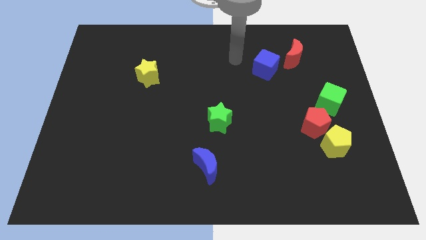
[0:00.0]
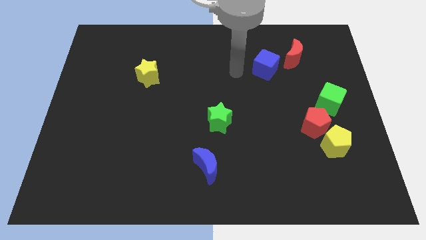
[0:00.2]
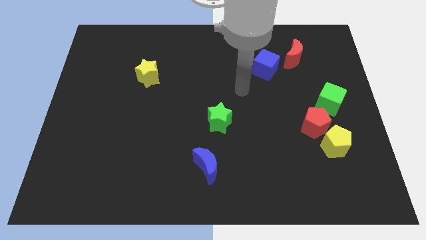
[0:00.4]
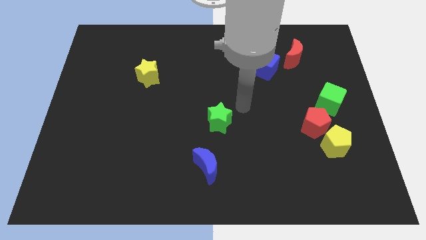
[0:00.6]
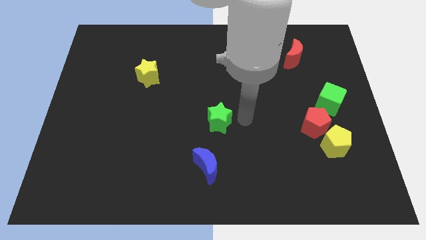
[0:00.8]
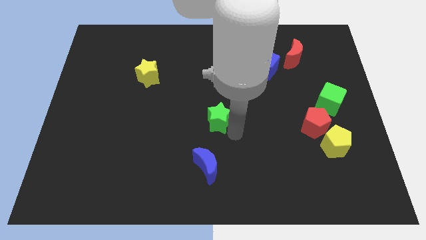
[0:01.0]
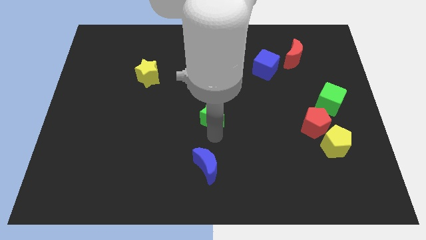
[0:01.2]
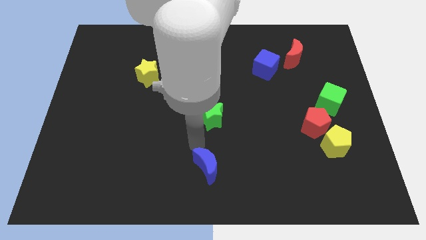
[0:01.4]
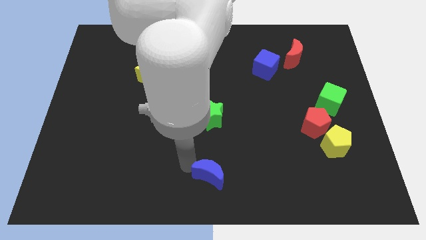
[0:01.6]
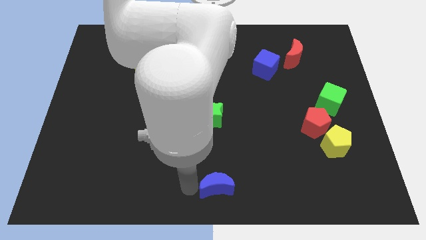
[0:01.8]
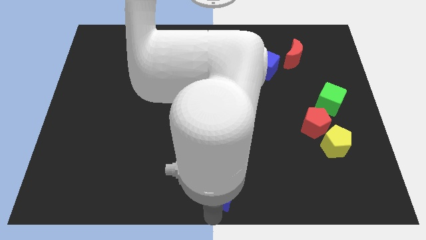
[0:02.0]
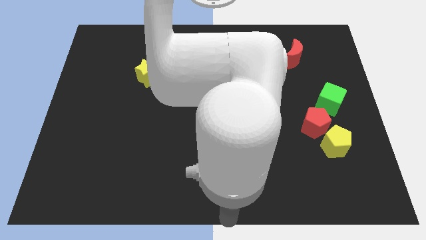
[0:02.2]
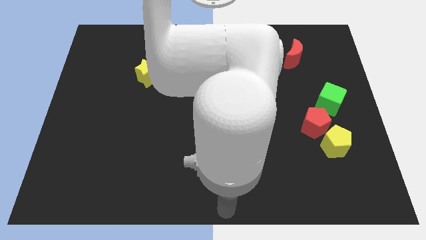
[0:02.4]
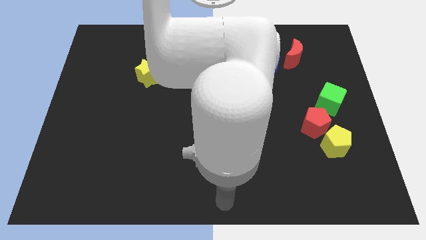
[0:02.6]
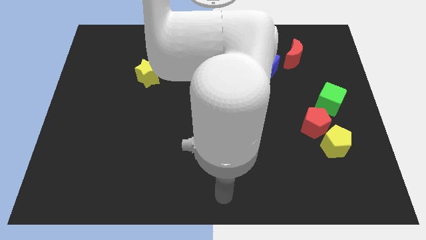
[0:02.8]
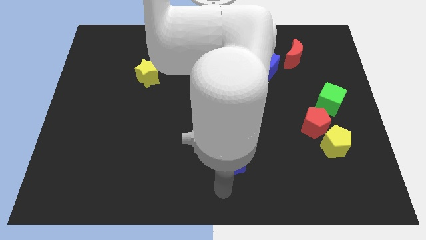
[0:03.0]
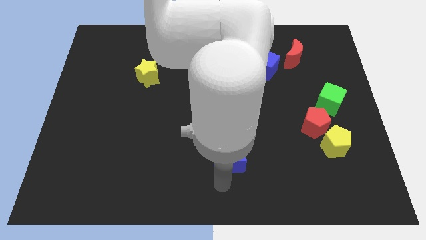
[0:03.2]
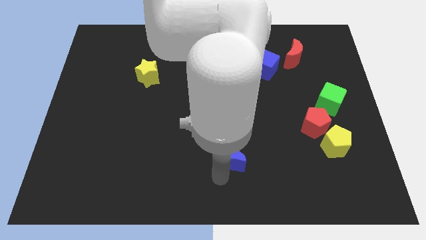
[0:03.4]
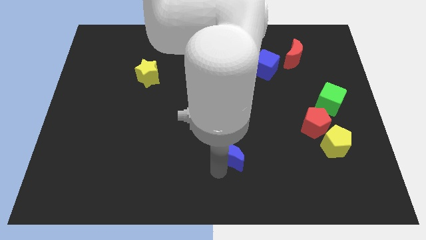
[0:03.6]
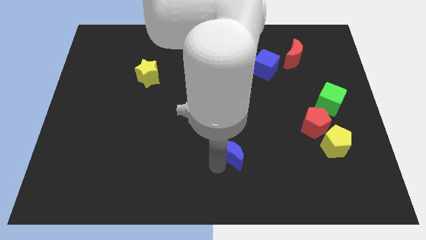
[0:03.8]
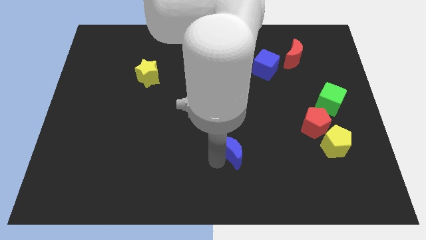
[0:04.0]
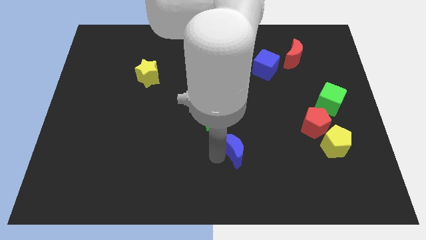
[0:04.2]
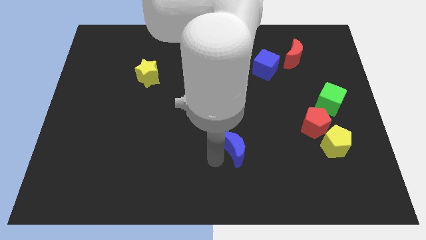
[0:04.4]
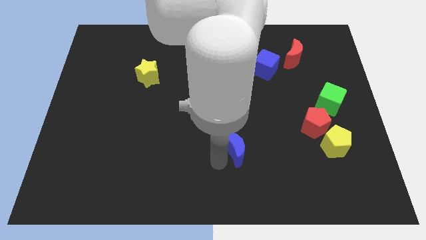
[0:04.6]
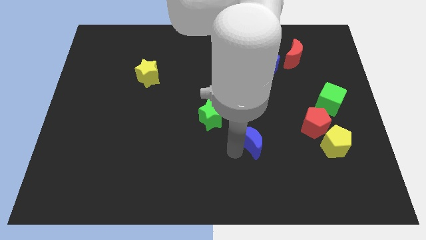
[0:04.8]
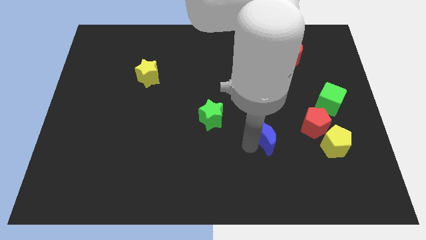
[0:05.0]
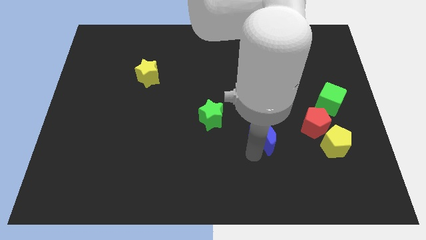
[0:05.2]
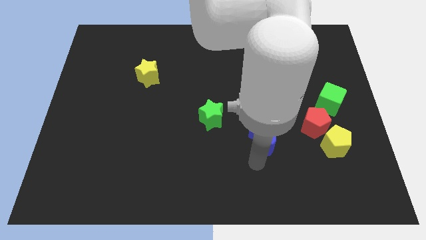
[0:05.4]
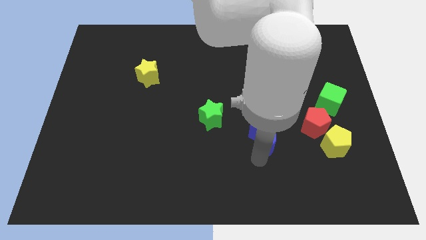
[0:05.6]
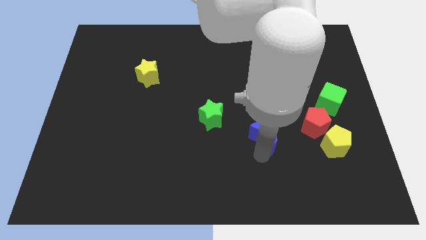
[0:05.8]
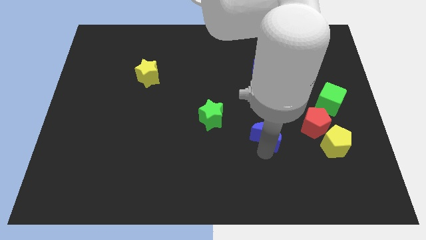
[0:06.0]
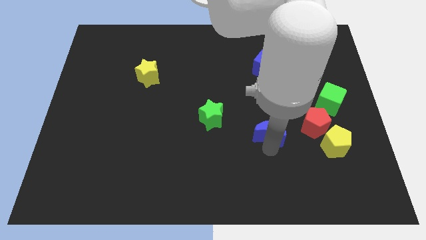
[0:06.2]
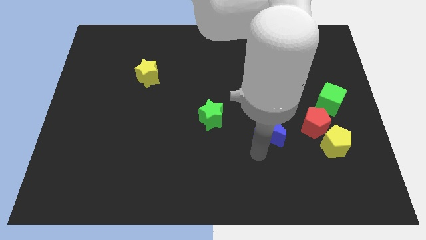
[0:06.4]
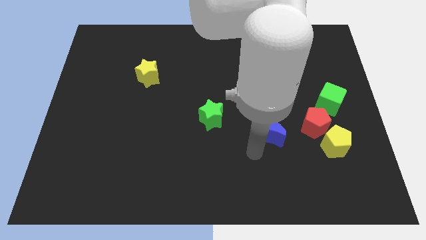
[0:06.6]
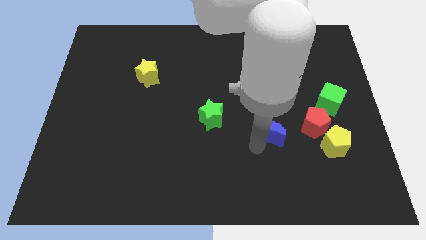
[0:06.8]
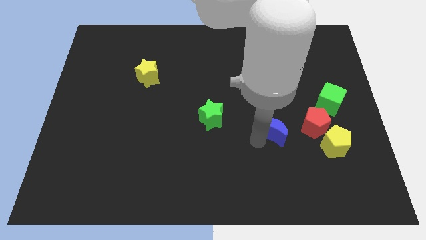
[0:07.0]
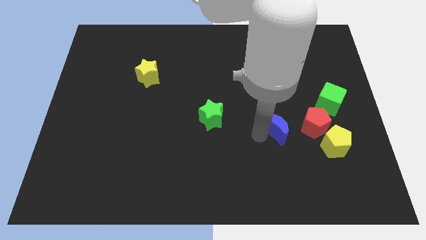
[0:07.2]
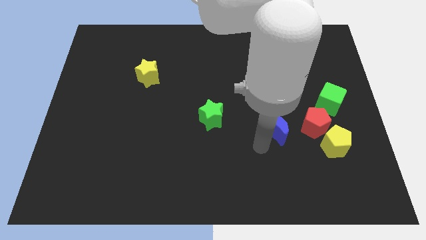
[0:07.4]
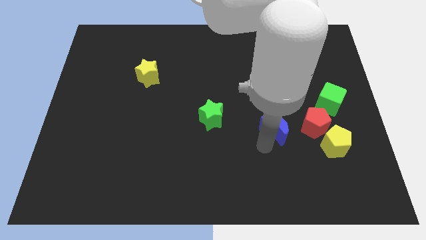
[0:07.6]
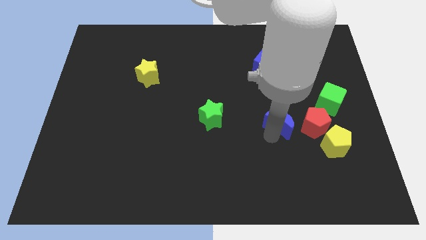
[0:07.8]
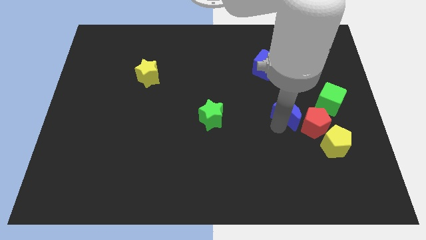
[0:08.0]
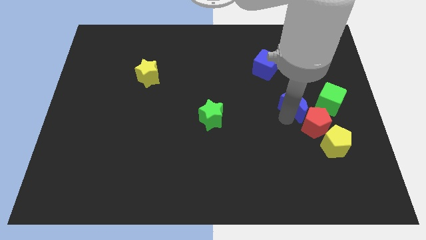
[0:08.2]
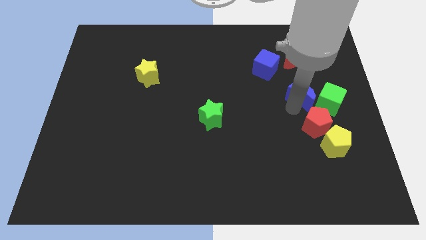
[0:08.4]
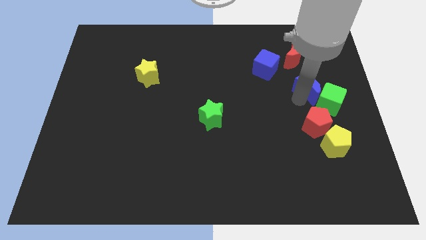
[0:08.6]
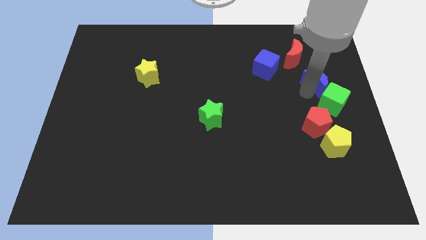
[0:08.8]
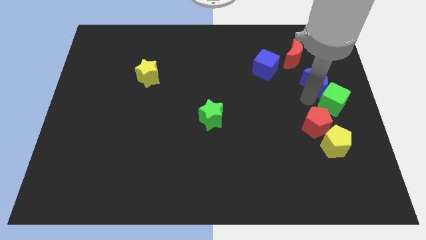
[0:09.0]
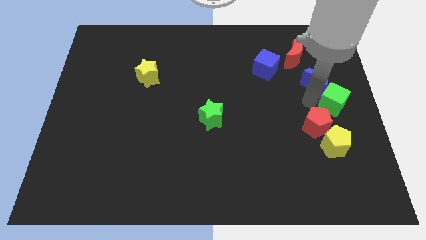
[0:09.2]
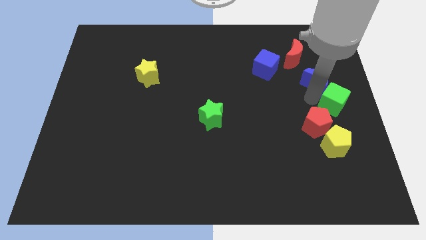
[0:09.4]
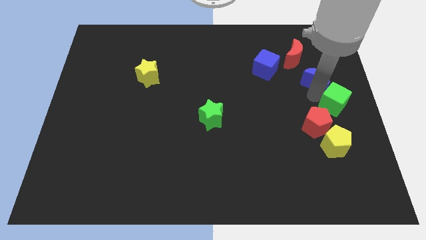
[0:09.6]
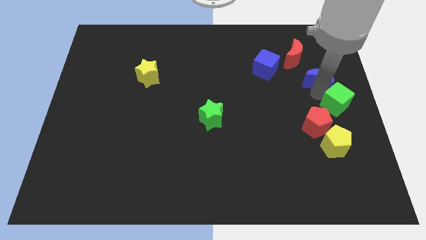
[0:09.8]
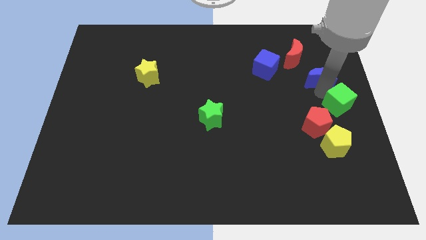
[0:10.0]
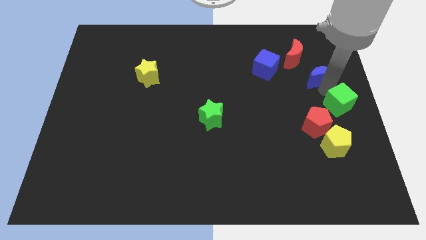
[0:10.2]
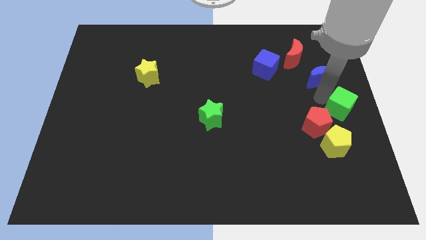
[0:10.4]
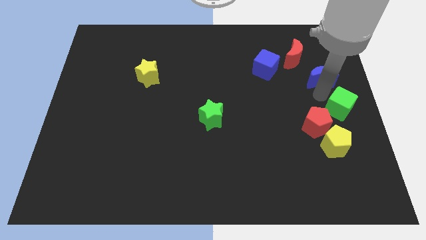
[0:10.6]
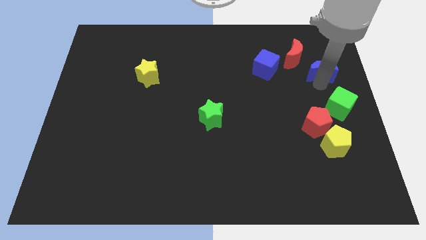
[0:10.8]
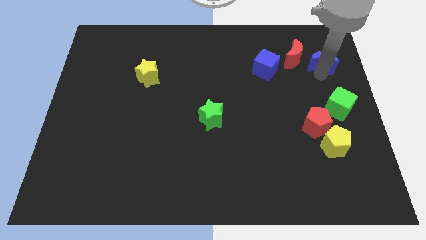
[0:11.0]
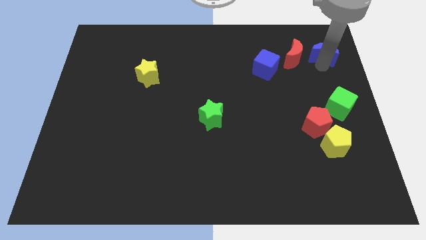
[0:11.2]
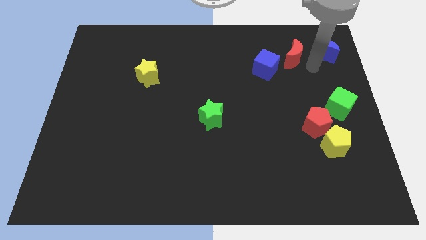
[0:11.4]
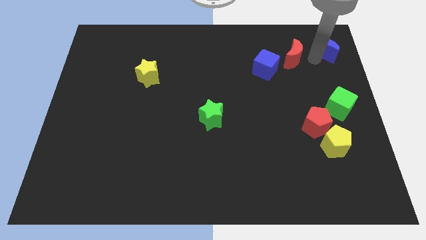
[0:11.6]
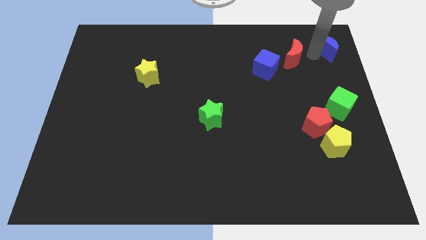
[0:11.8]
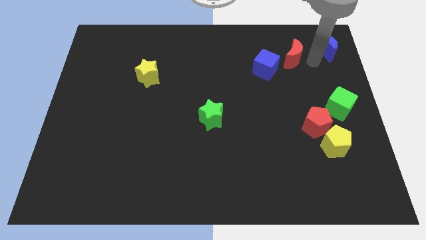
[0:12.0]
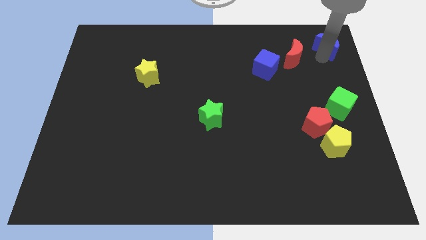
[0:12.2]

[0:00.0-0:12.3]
push the blue moon to the upper right corner

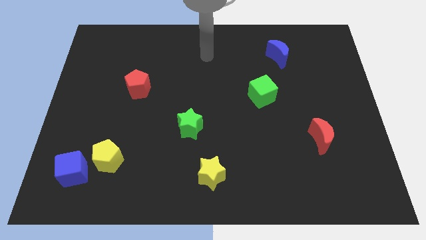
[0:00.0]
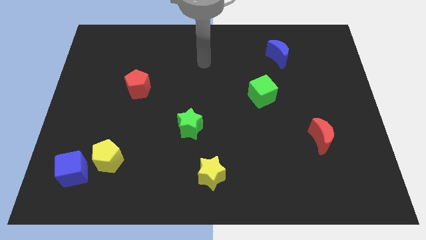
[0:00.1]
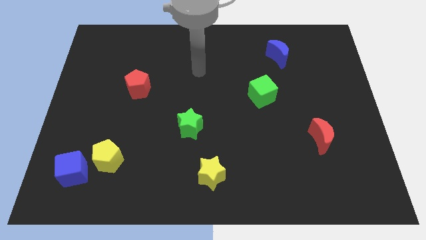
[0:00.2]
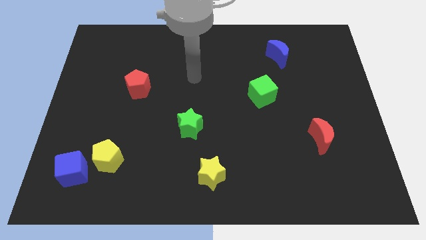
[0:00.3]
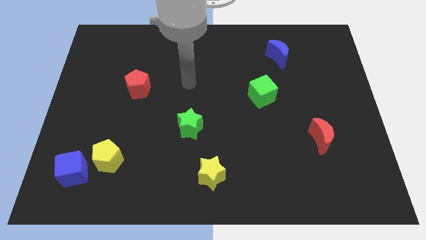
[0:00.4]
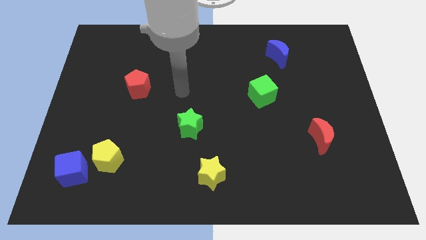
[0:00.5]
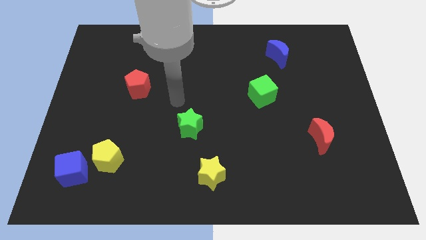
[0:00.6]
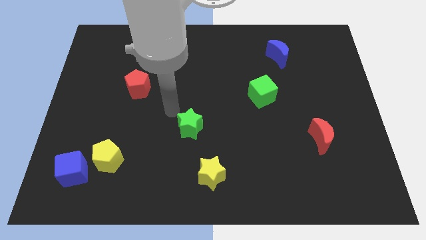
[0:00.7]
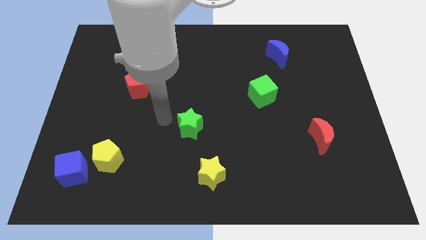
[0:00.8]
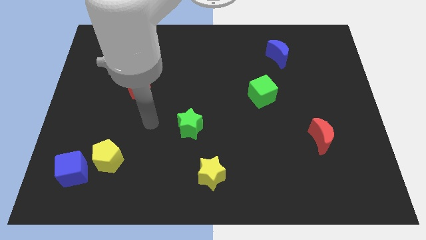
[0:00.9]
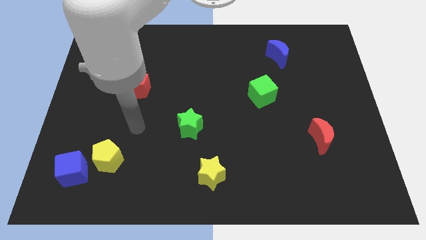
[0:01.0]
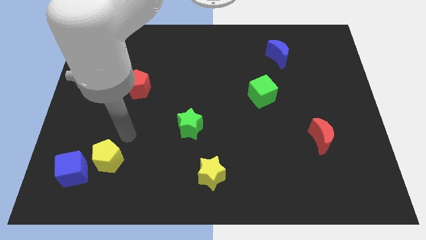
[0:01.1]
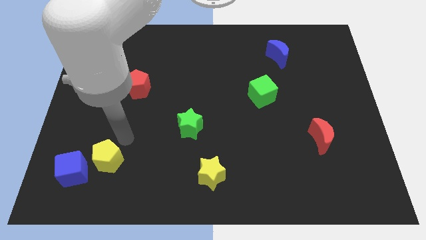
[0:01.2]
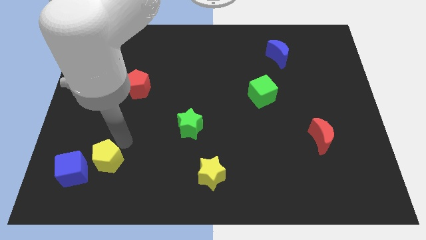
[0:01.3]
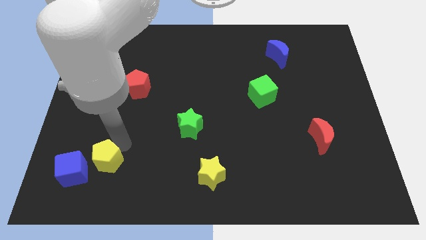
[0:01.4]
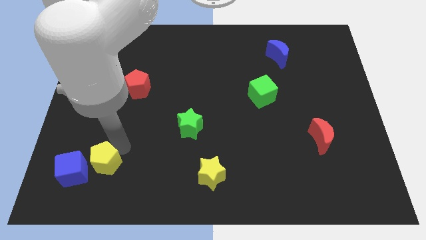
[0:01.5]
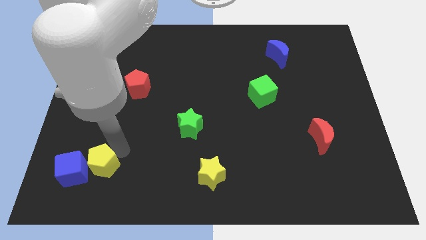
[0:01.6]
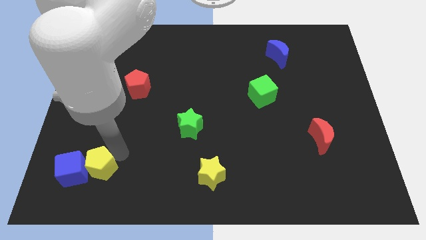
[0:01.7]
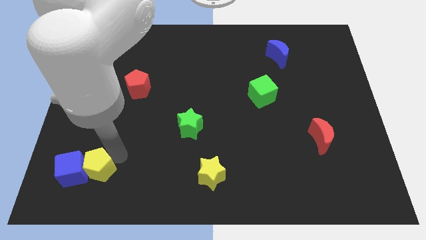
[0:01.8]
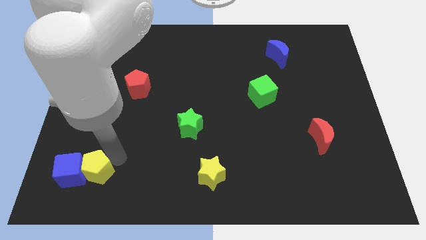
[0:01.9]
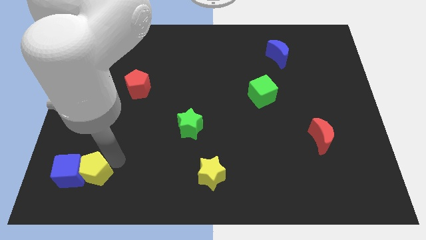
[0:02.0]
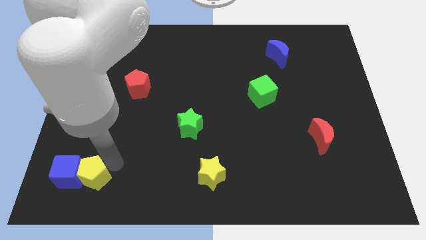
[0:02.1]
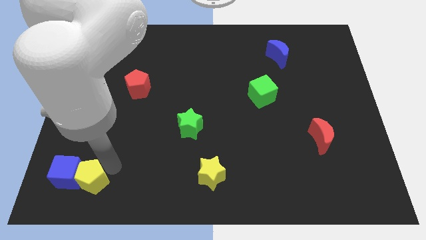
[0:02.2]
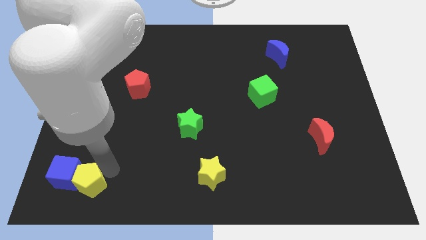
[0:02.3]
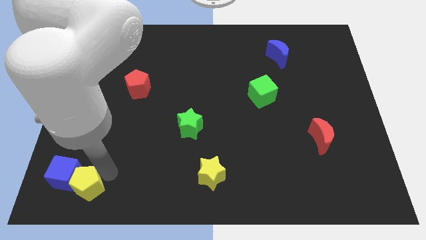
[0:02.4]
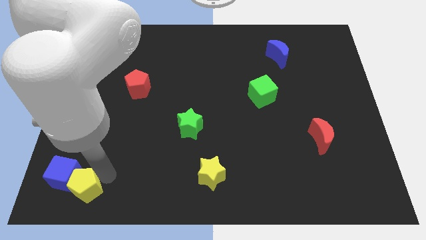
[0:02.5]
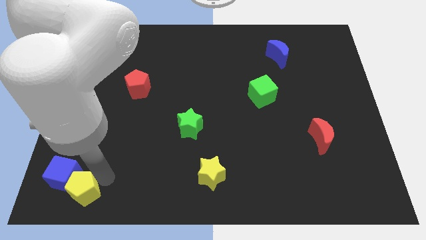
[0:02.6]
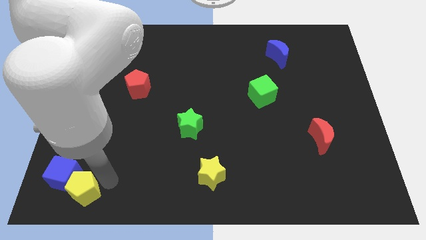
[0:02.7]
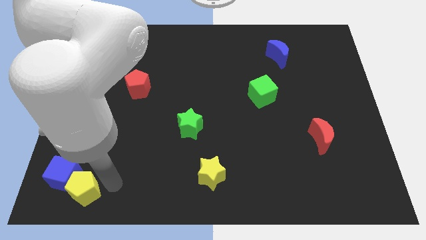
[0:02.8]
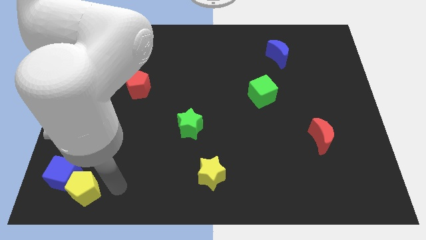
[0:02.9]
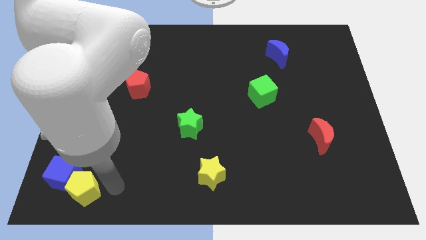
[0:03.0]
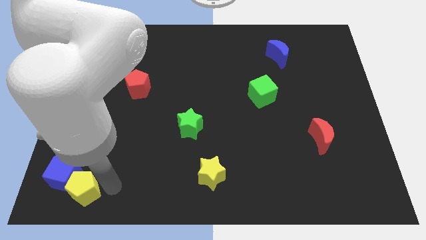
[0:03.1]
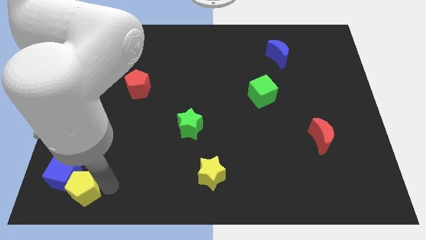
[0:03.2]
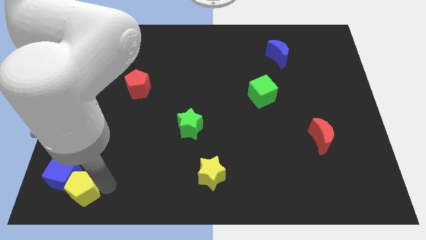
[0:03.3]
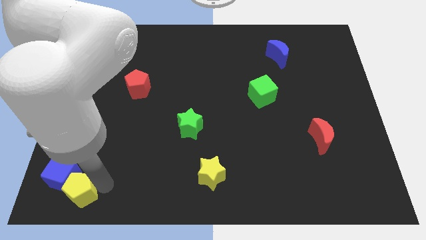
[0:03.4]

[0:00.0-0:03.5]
slide the yellow pentagon to the bottom left of the board
